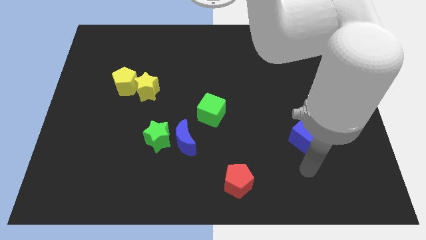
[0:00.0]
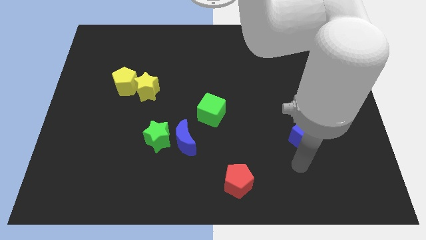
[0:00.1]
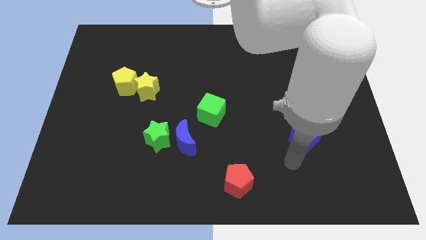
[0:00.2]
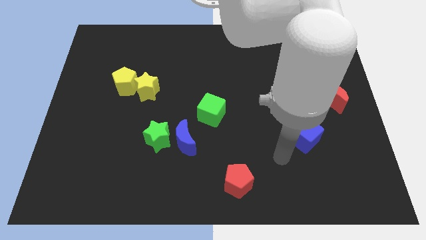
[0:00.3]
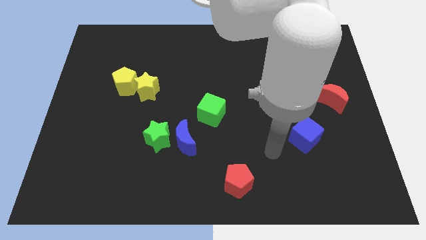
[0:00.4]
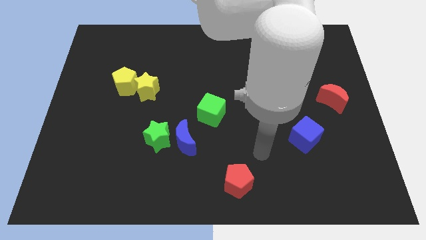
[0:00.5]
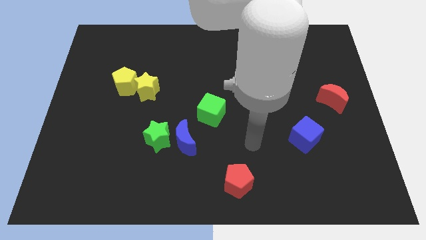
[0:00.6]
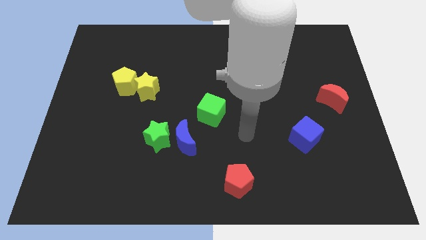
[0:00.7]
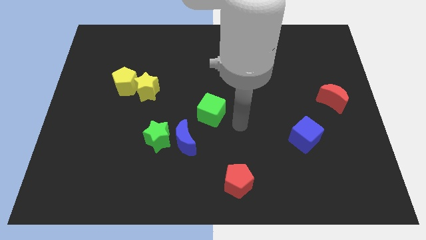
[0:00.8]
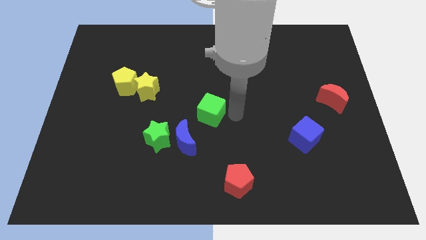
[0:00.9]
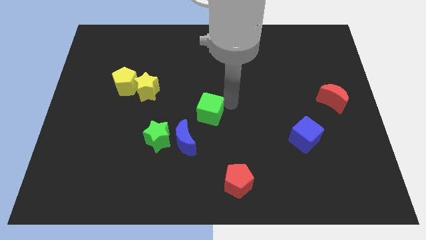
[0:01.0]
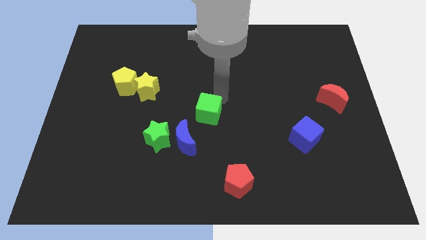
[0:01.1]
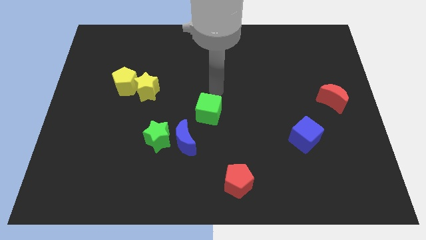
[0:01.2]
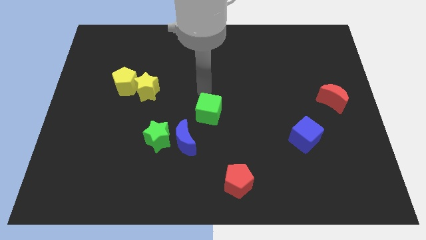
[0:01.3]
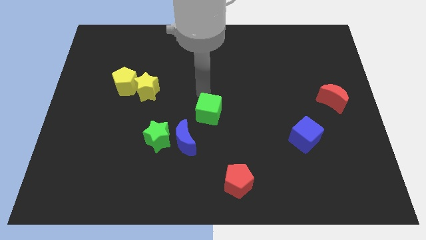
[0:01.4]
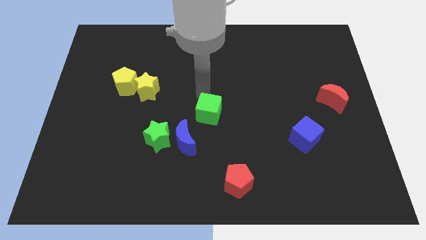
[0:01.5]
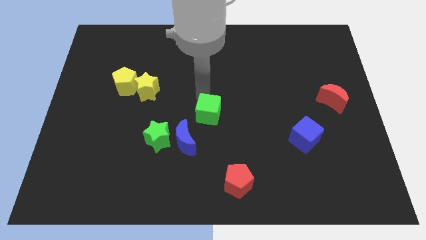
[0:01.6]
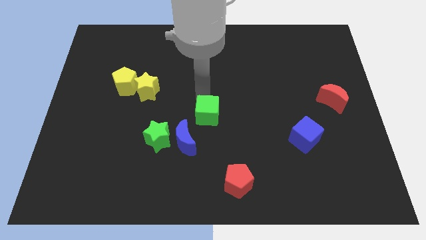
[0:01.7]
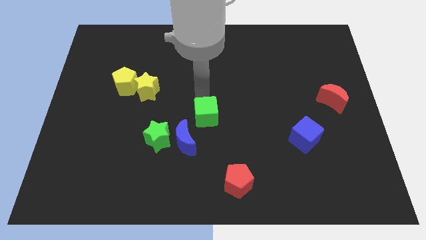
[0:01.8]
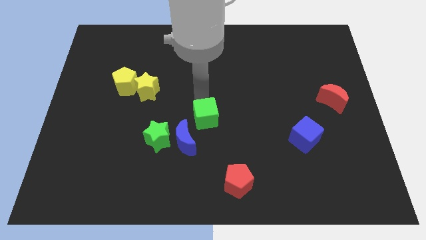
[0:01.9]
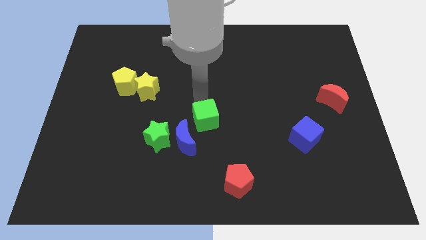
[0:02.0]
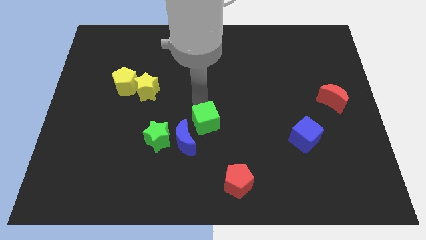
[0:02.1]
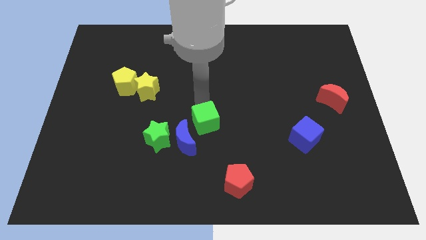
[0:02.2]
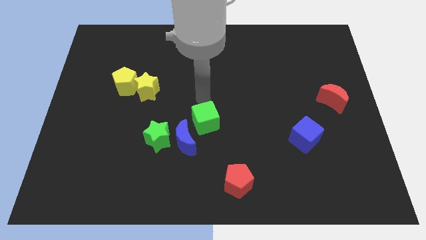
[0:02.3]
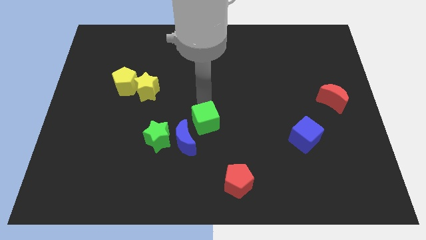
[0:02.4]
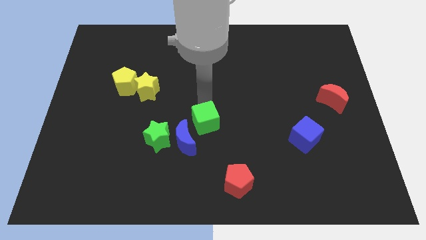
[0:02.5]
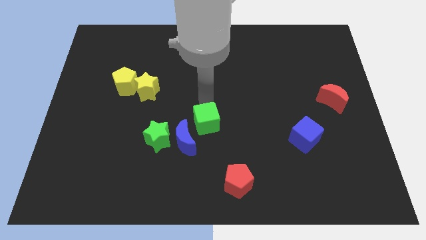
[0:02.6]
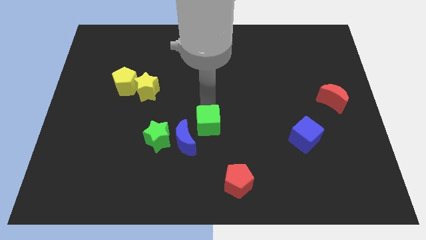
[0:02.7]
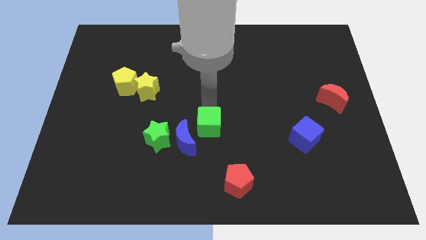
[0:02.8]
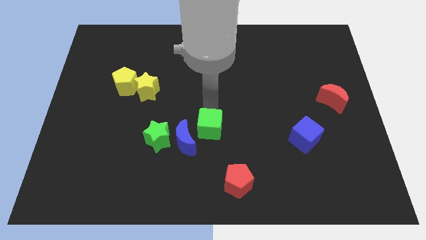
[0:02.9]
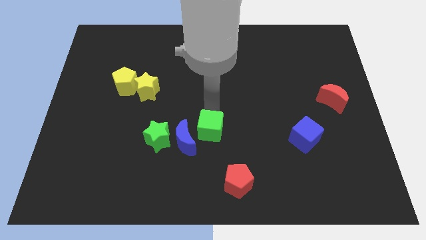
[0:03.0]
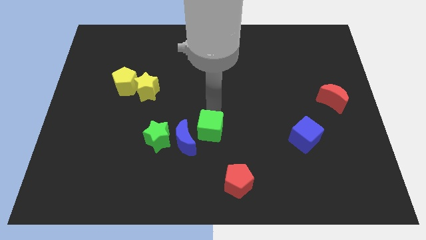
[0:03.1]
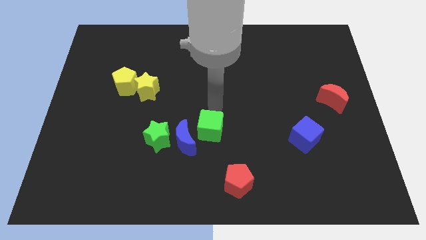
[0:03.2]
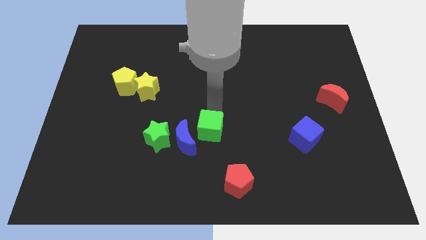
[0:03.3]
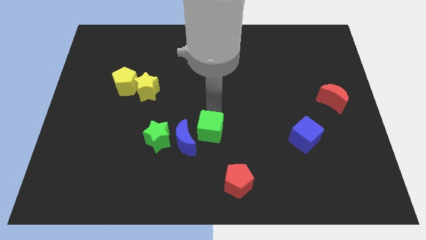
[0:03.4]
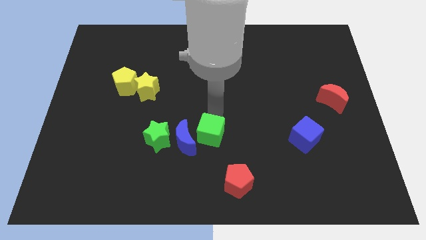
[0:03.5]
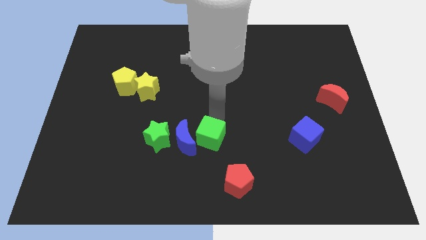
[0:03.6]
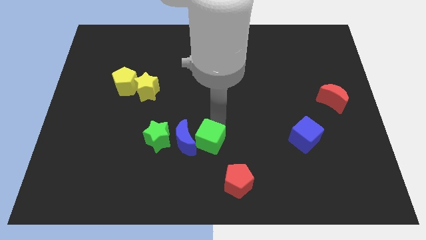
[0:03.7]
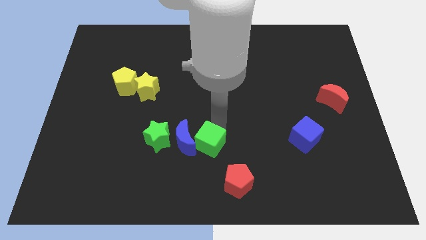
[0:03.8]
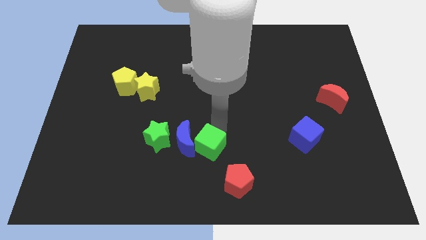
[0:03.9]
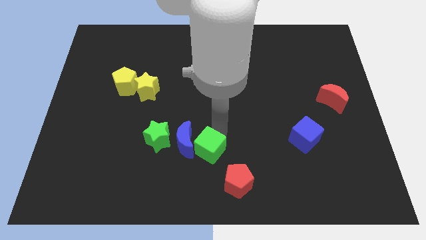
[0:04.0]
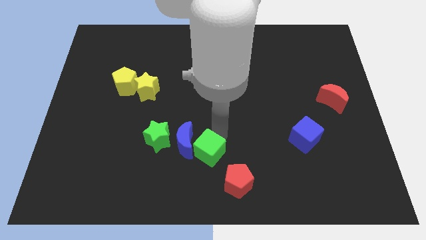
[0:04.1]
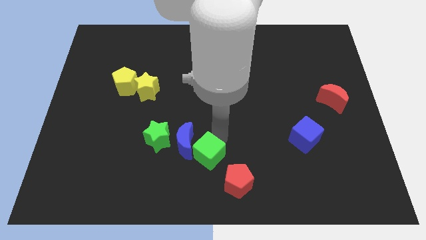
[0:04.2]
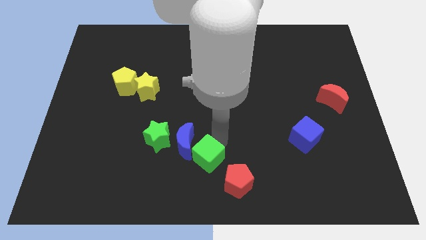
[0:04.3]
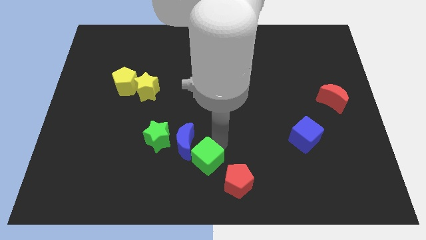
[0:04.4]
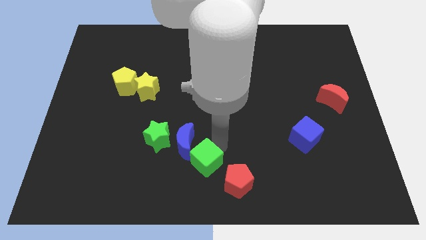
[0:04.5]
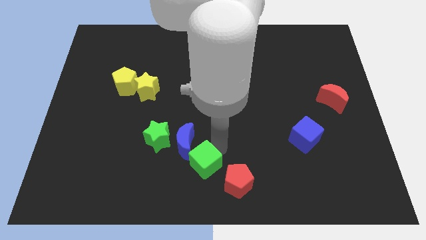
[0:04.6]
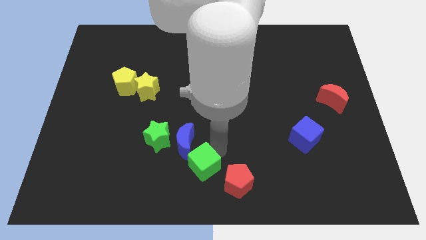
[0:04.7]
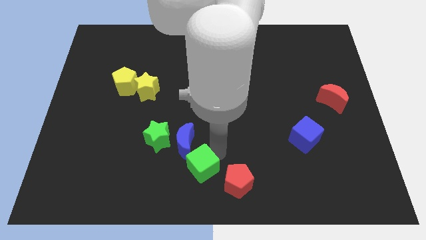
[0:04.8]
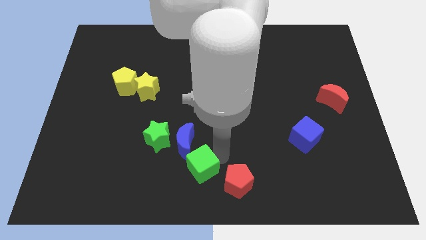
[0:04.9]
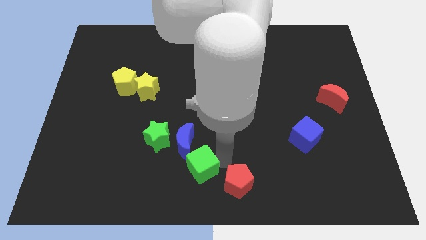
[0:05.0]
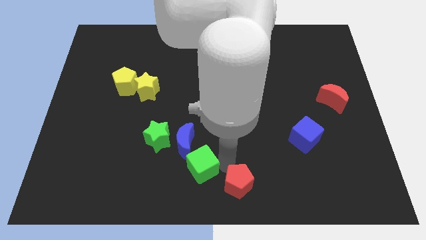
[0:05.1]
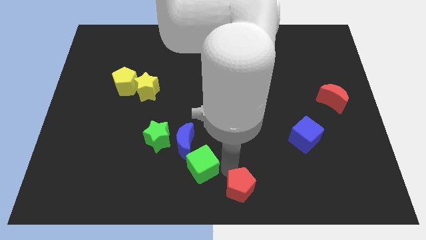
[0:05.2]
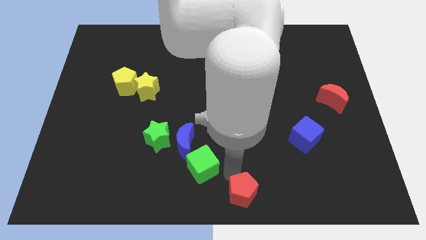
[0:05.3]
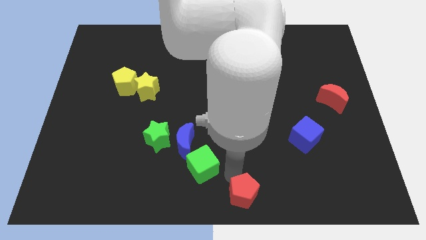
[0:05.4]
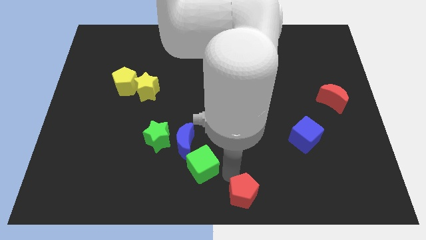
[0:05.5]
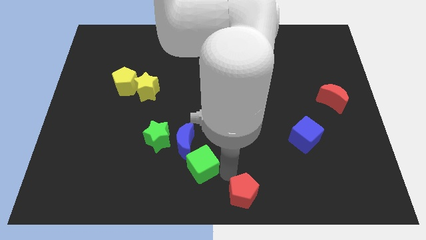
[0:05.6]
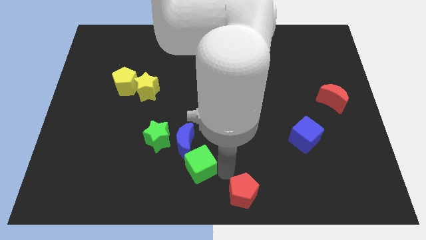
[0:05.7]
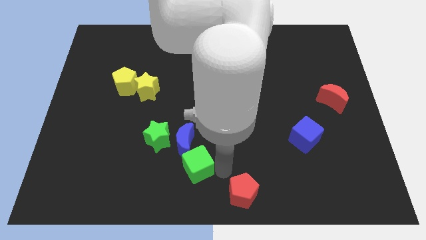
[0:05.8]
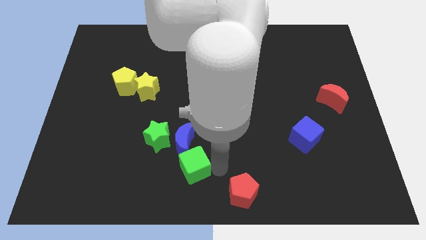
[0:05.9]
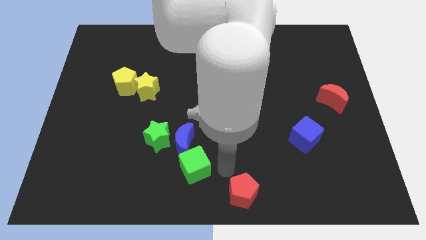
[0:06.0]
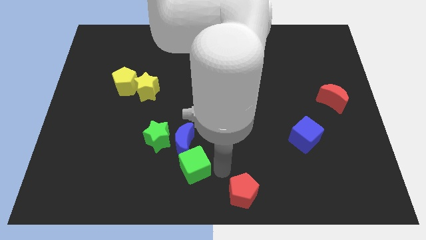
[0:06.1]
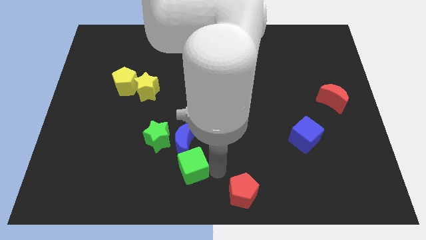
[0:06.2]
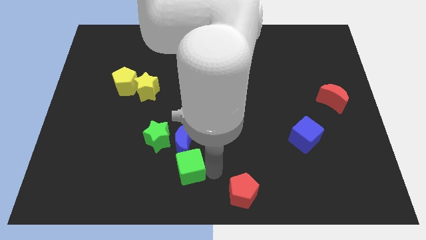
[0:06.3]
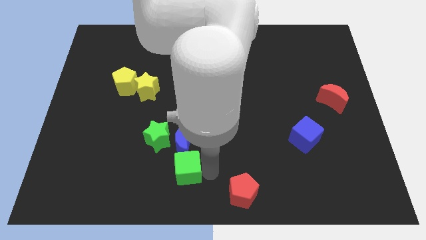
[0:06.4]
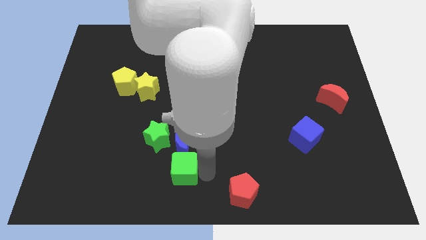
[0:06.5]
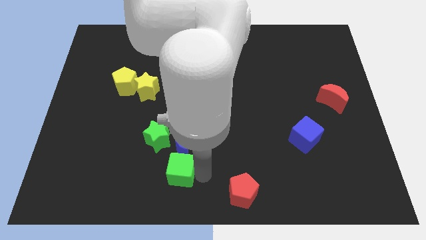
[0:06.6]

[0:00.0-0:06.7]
push the green cube to the bottom left of the blue moon
